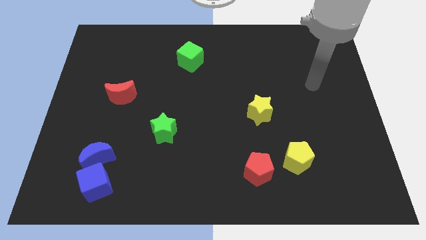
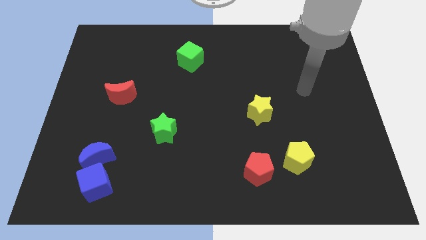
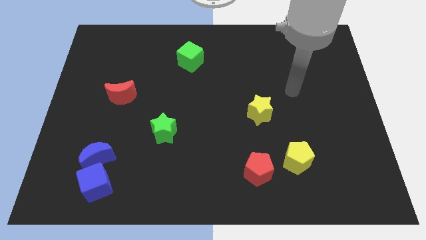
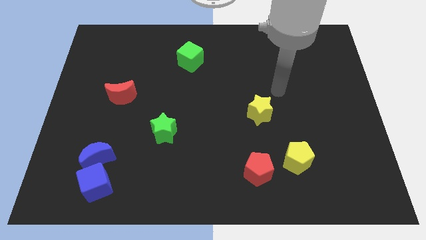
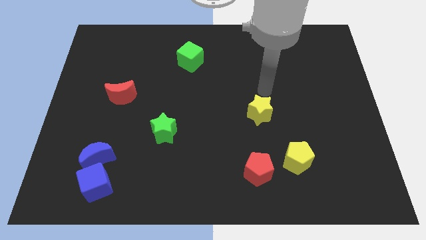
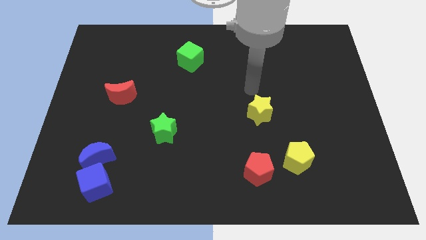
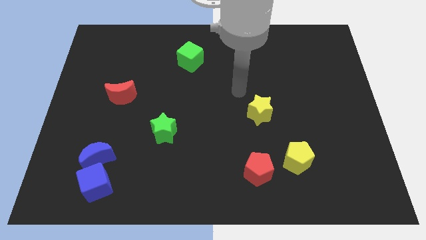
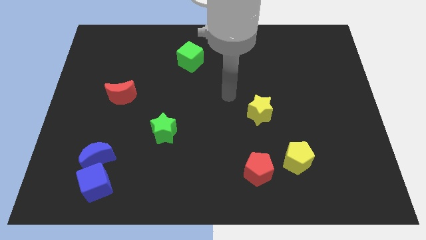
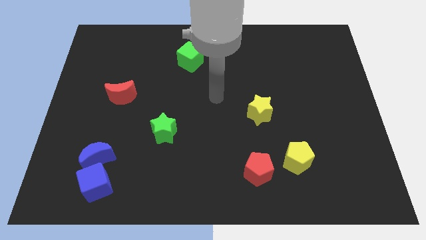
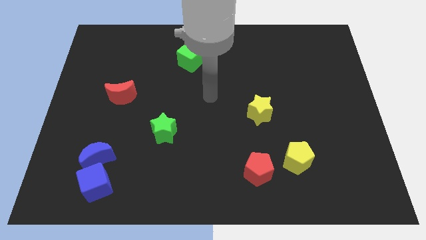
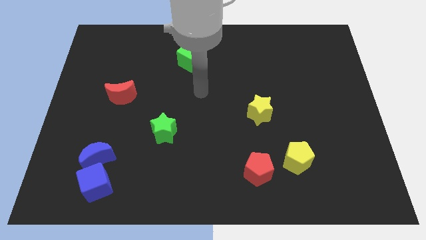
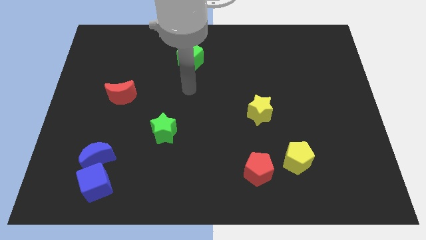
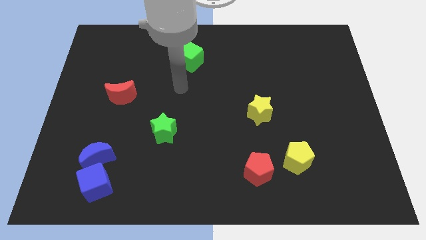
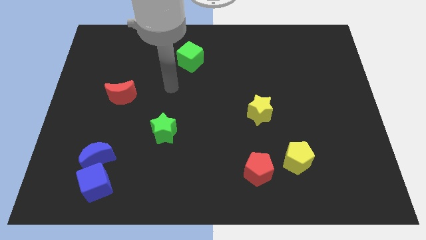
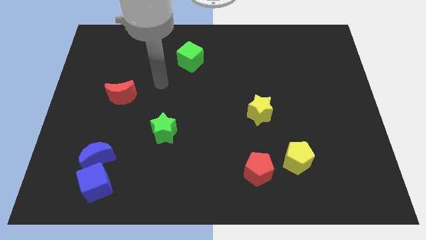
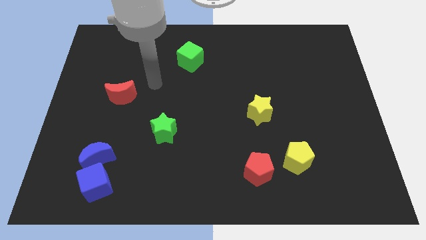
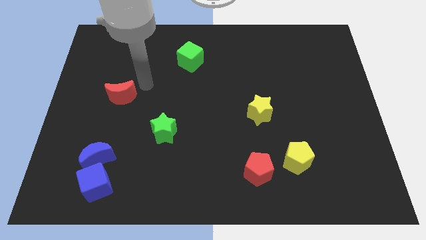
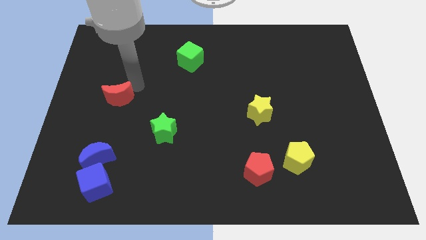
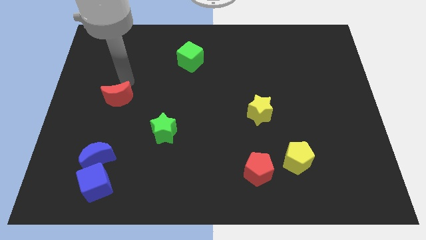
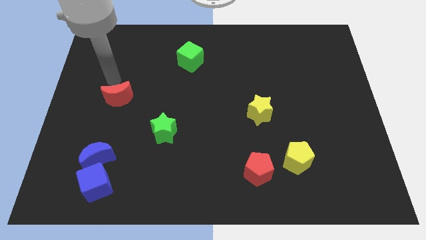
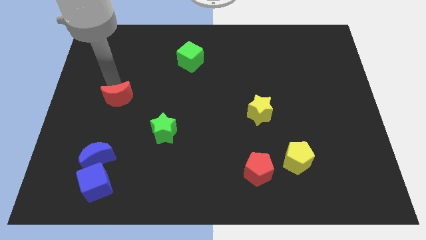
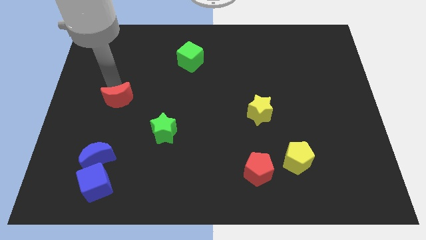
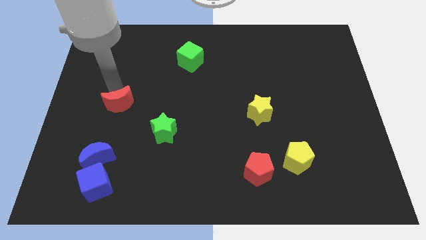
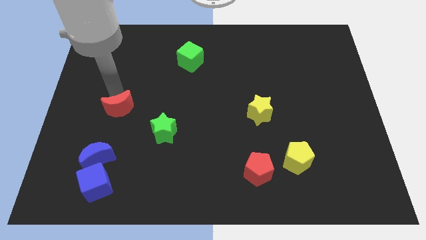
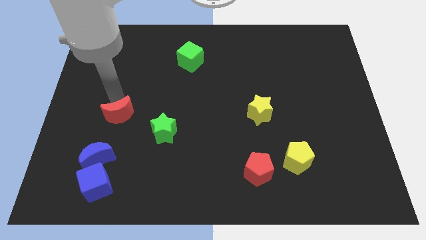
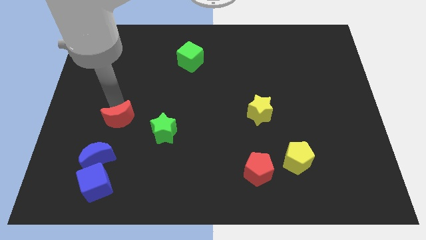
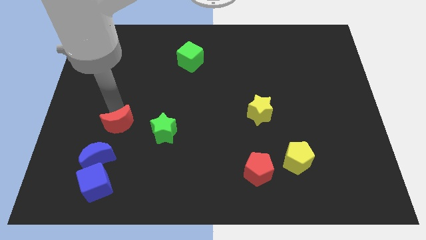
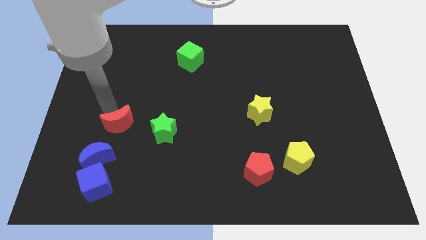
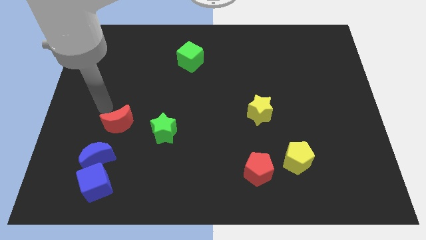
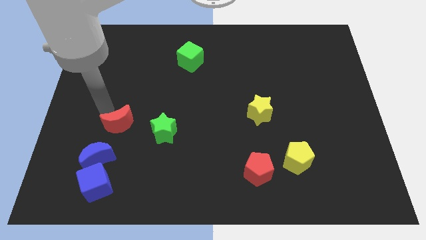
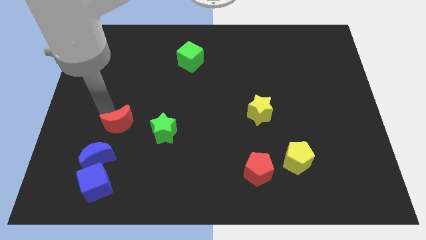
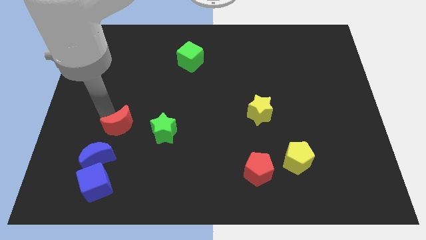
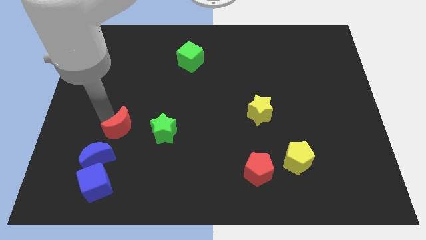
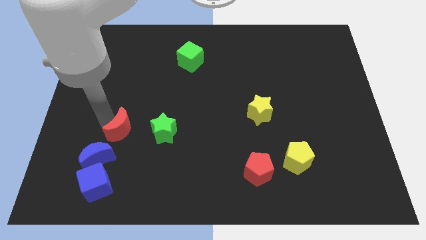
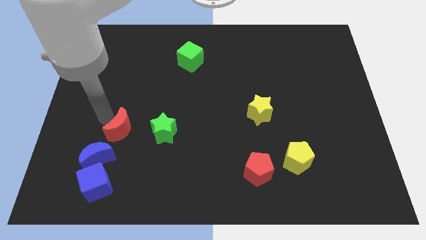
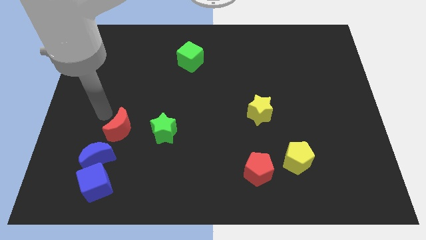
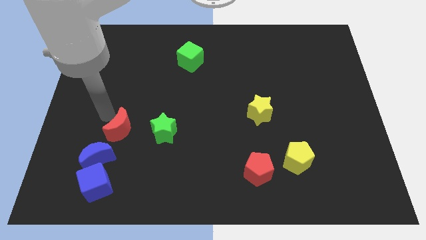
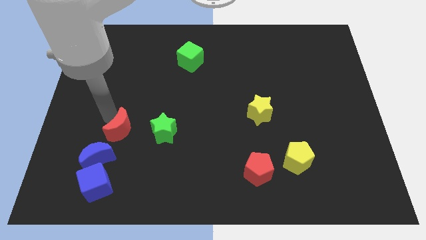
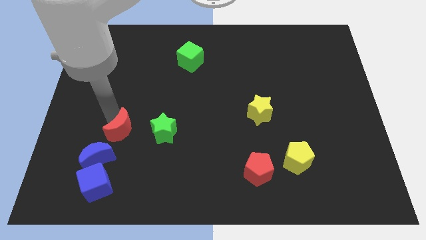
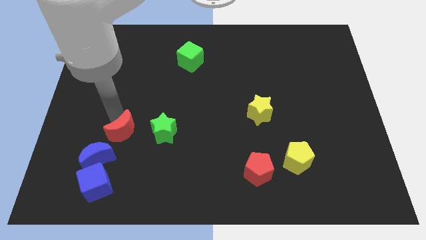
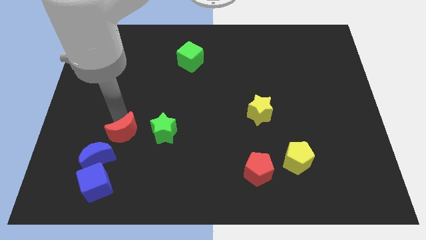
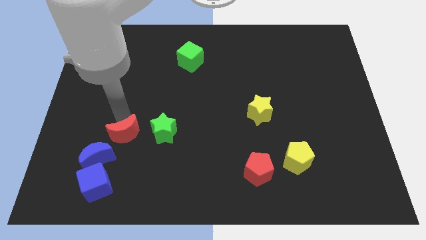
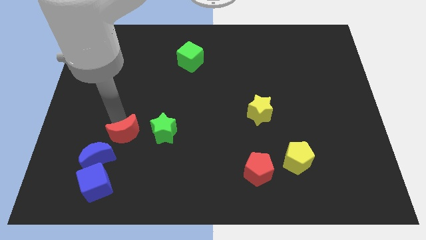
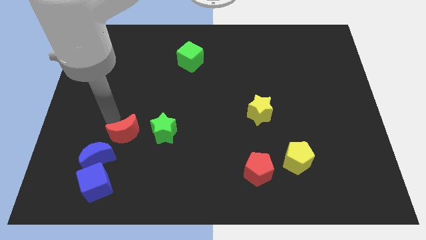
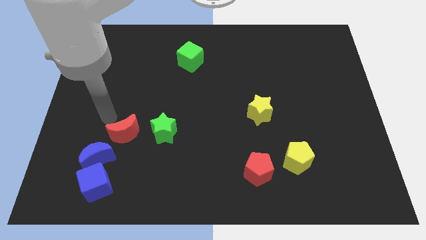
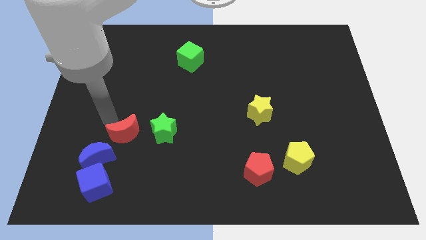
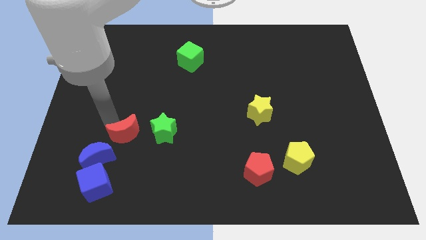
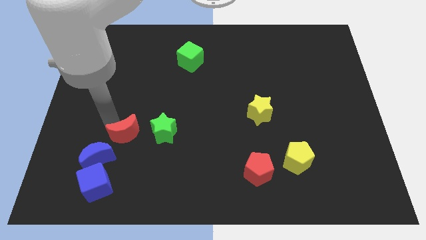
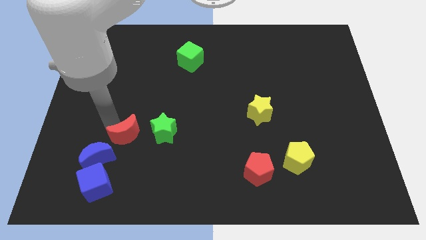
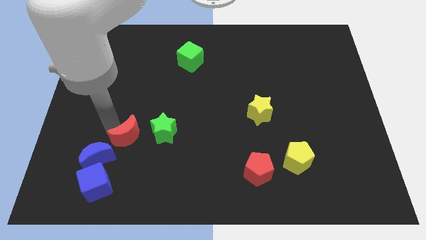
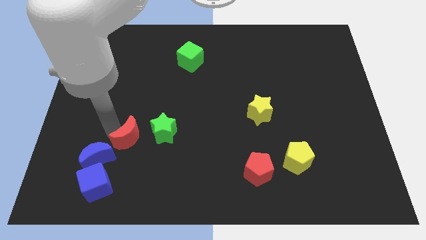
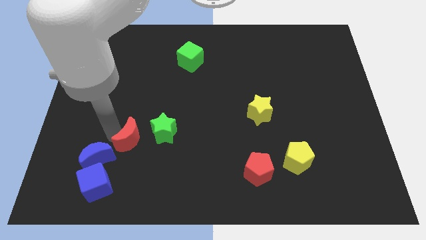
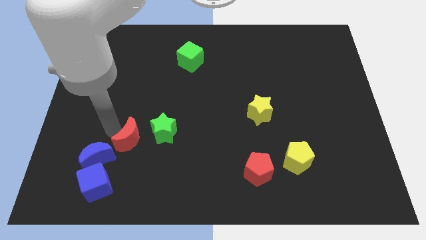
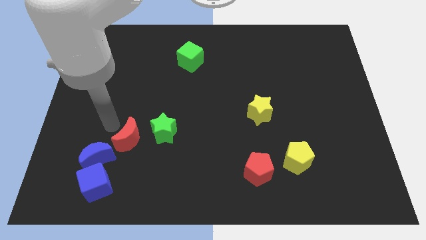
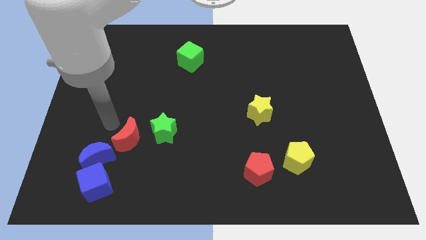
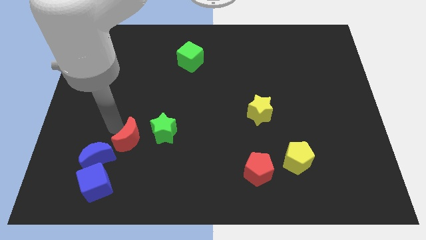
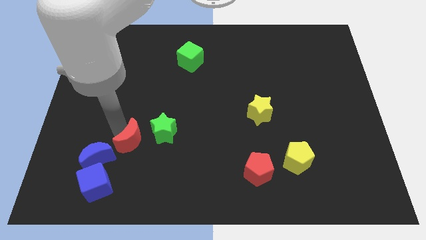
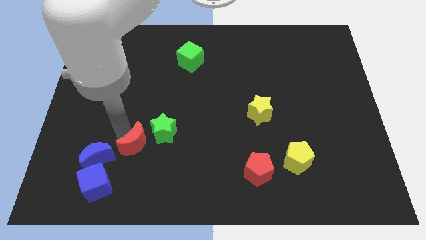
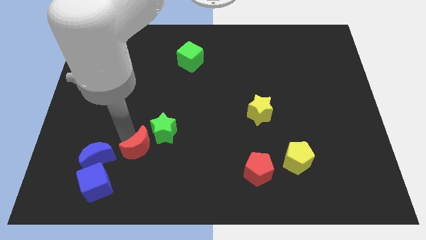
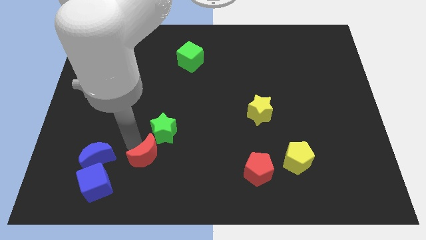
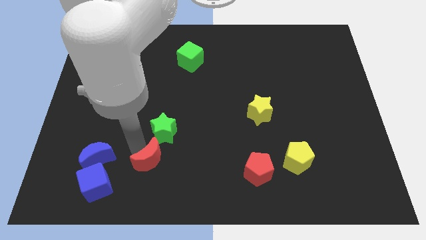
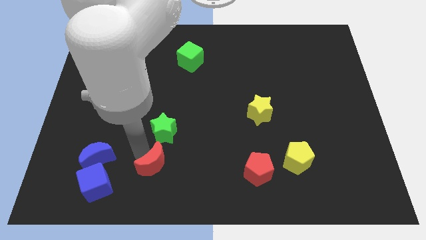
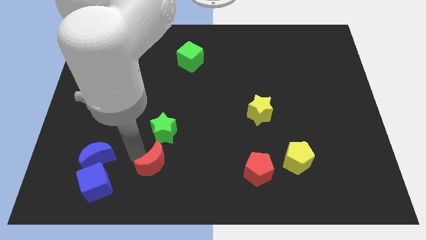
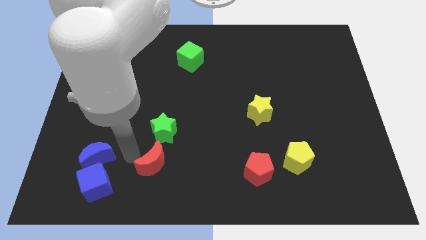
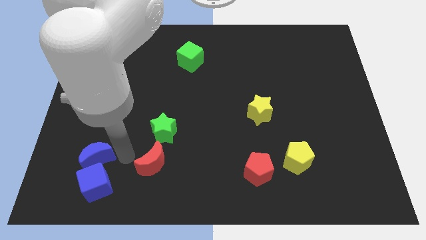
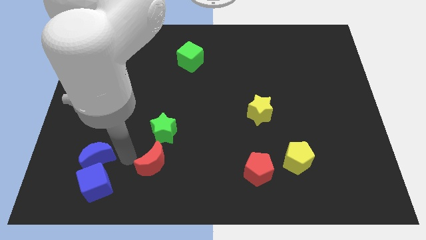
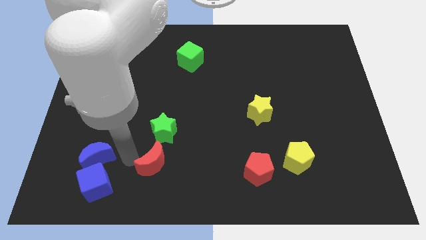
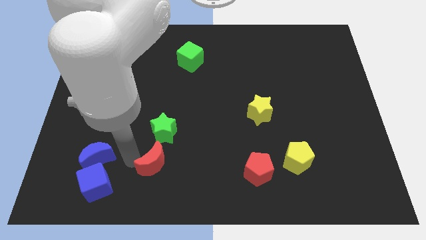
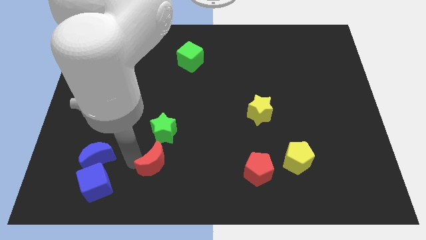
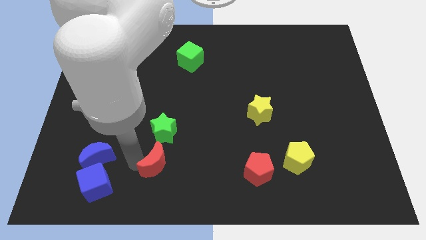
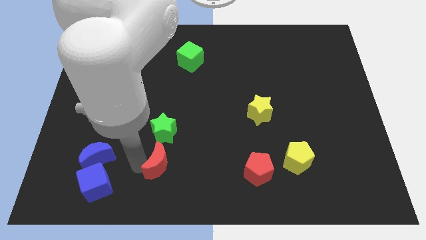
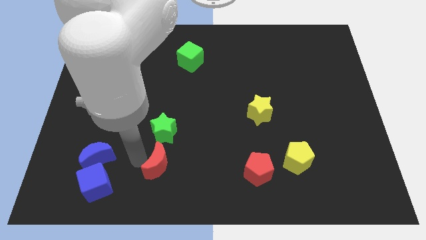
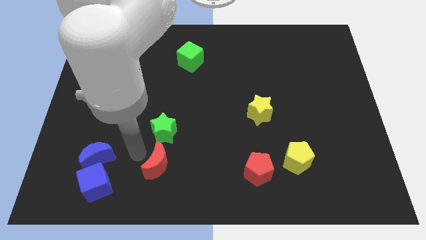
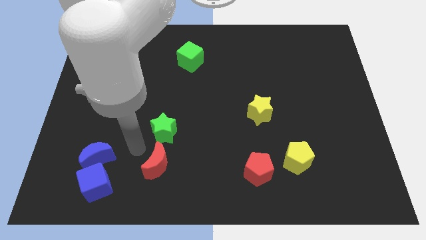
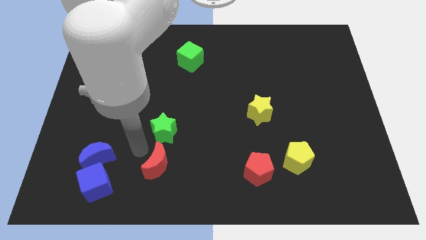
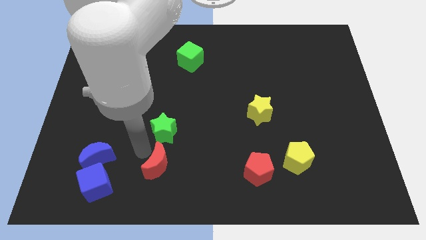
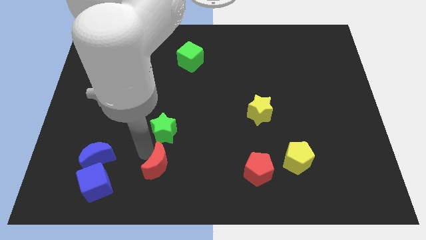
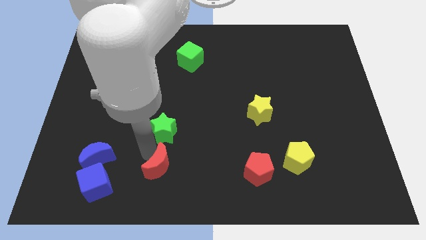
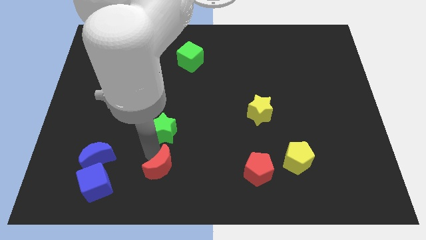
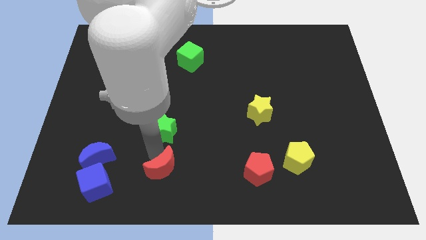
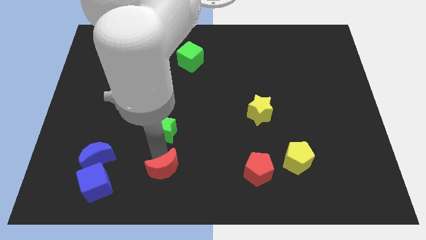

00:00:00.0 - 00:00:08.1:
put the red moon to the bottom side
